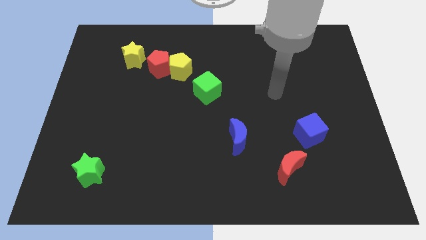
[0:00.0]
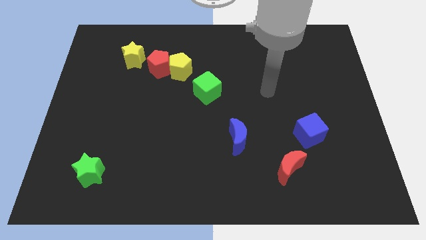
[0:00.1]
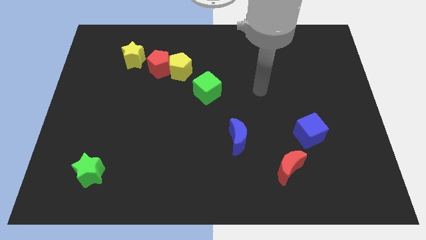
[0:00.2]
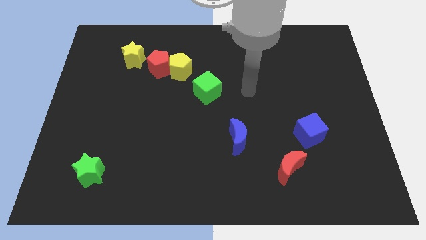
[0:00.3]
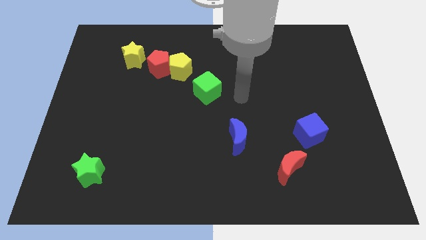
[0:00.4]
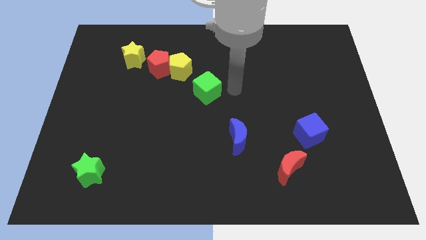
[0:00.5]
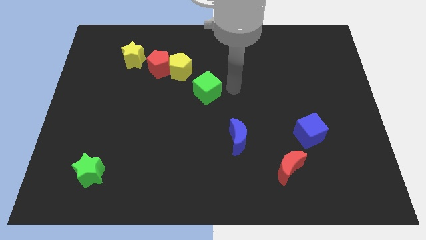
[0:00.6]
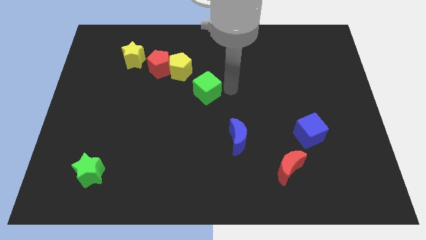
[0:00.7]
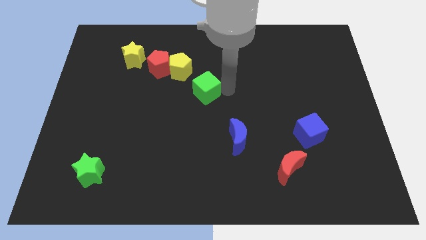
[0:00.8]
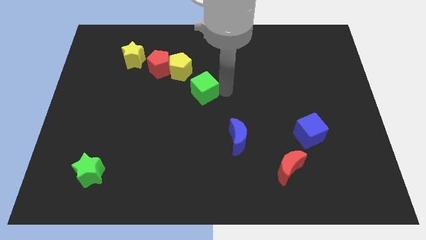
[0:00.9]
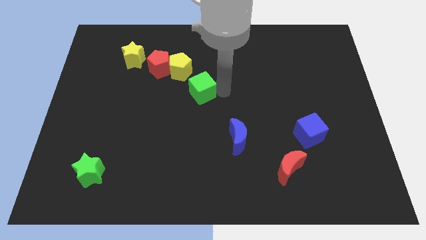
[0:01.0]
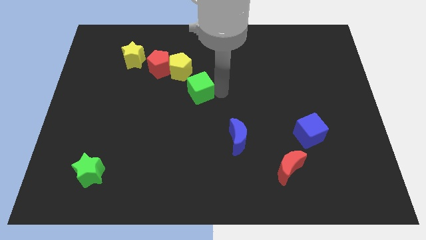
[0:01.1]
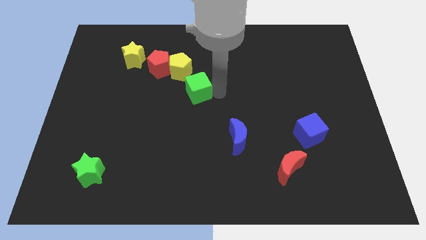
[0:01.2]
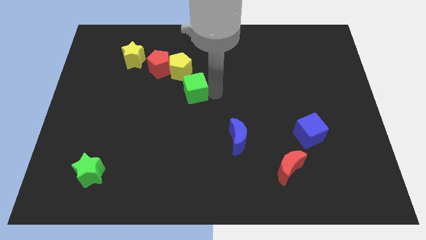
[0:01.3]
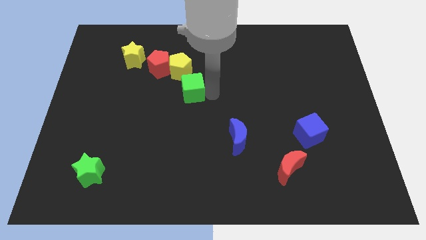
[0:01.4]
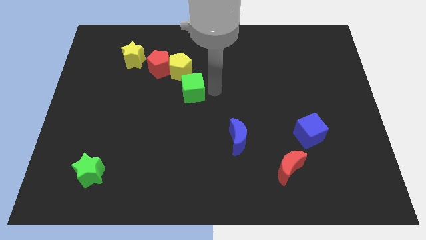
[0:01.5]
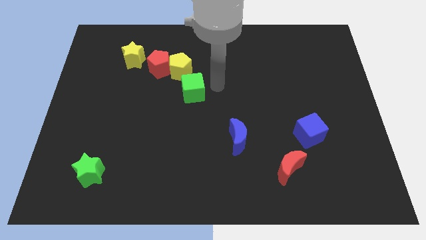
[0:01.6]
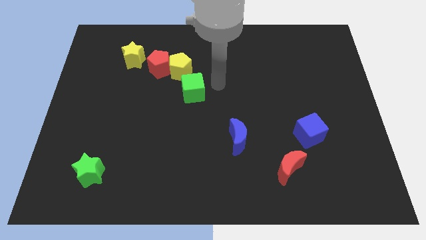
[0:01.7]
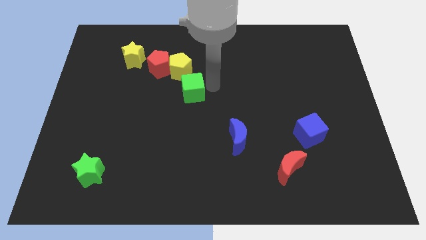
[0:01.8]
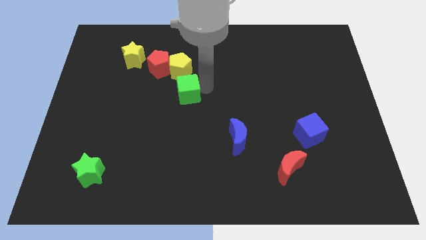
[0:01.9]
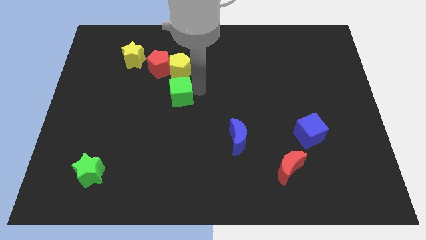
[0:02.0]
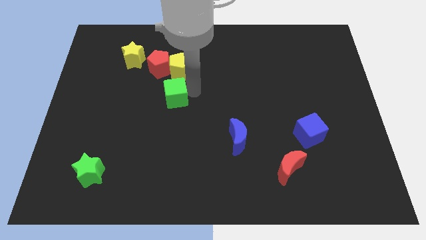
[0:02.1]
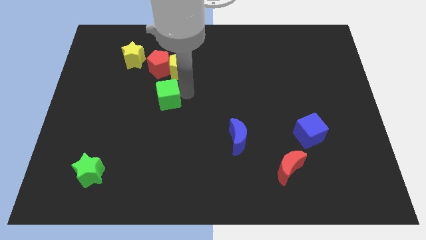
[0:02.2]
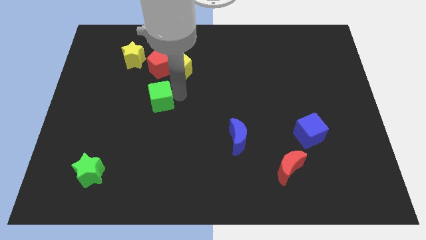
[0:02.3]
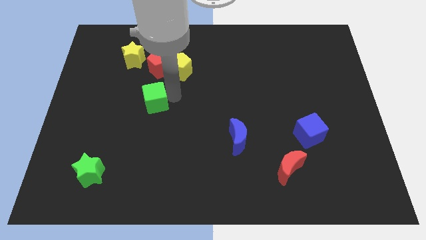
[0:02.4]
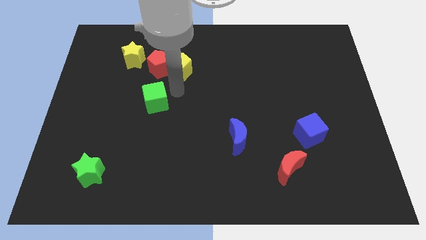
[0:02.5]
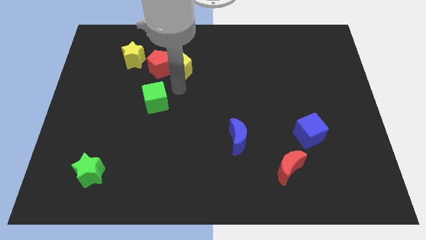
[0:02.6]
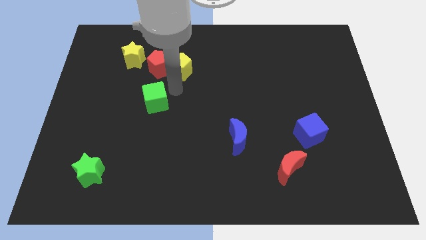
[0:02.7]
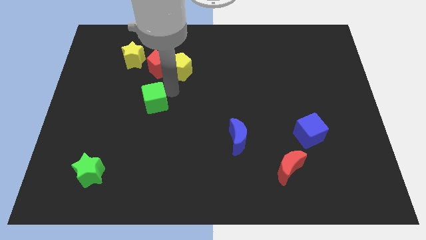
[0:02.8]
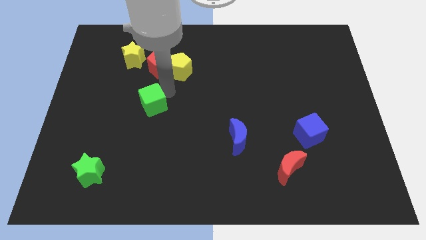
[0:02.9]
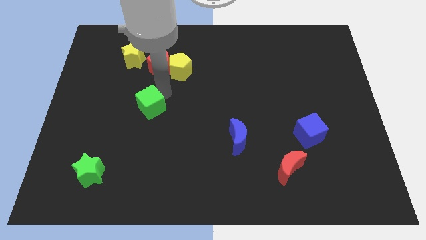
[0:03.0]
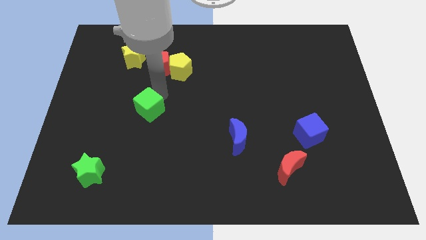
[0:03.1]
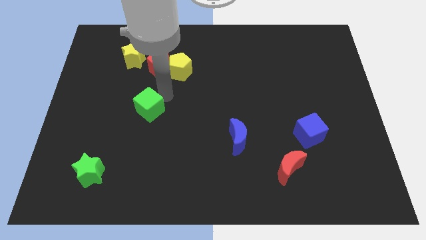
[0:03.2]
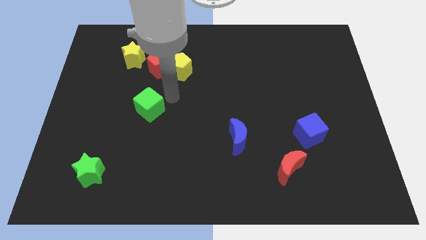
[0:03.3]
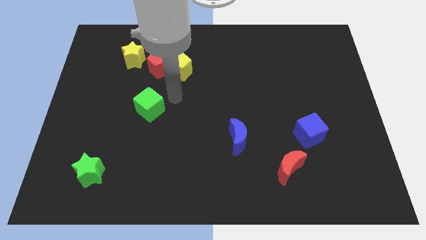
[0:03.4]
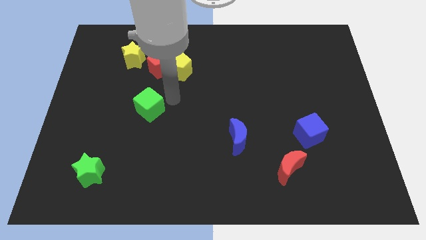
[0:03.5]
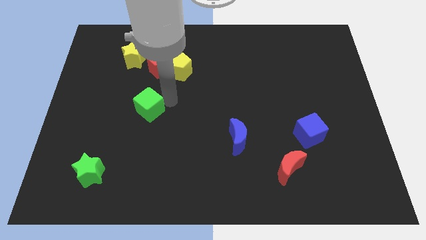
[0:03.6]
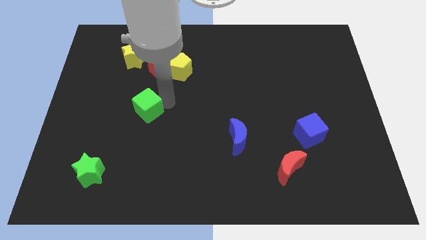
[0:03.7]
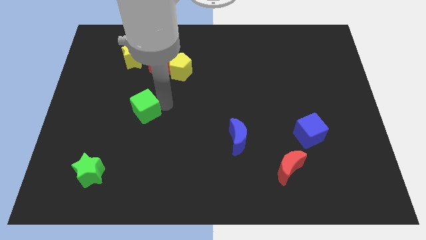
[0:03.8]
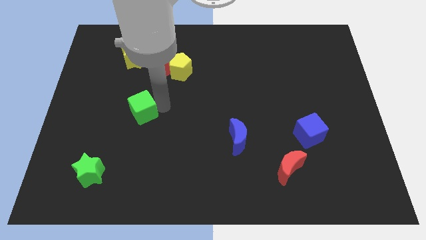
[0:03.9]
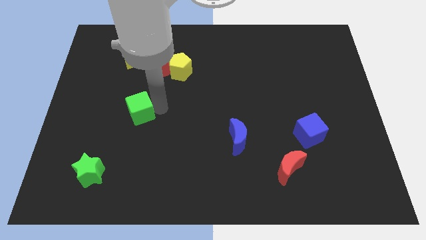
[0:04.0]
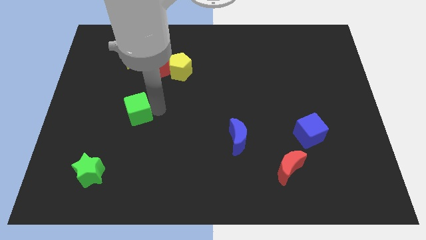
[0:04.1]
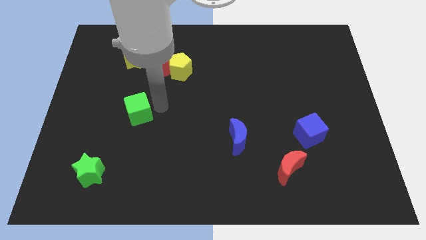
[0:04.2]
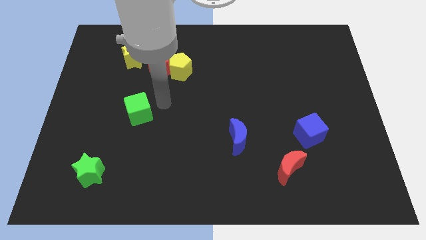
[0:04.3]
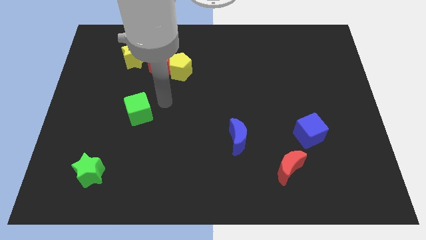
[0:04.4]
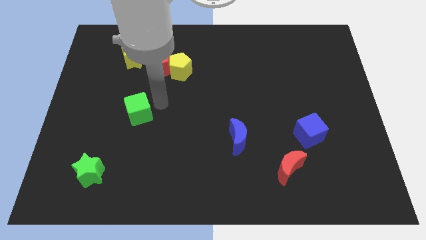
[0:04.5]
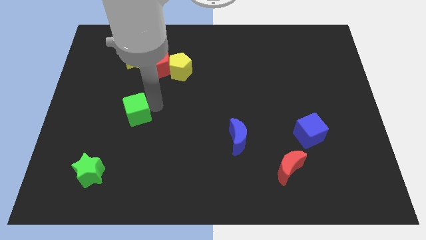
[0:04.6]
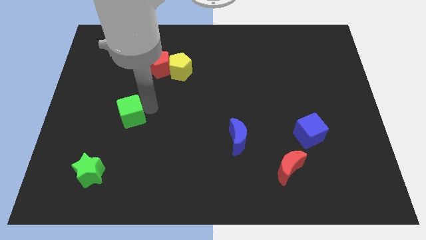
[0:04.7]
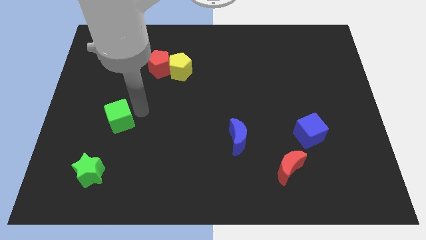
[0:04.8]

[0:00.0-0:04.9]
slide the green cube to the top of the green star

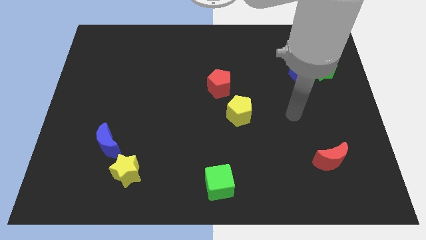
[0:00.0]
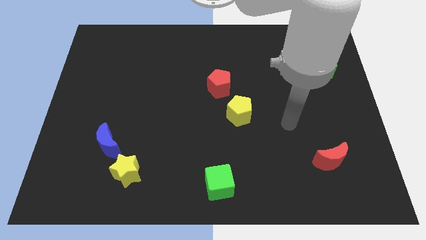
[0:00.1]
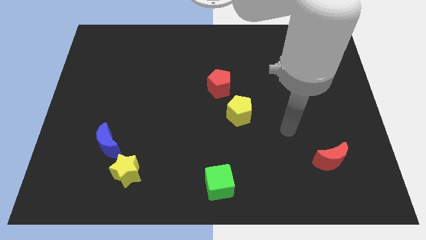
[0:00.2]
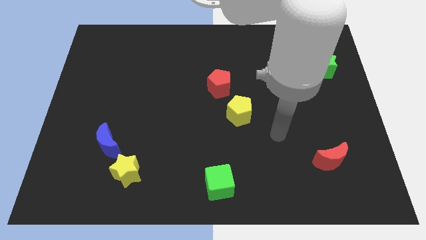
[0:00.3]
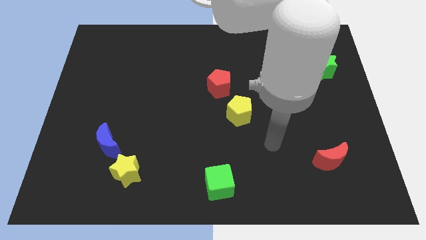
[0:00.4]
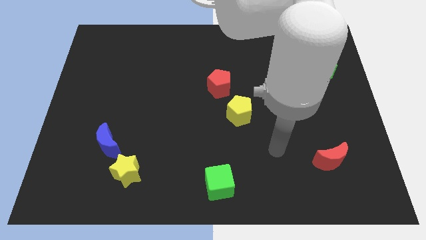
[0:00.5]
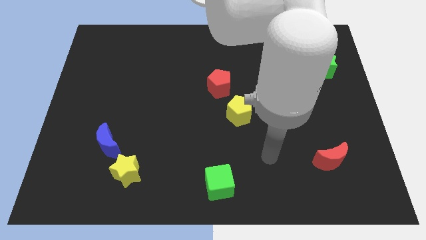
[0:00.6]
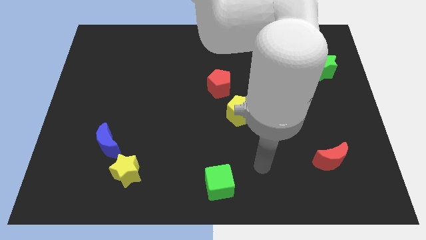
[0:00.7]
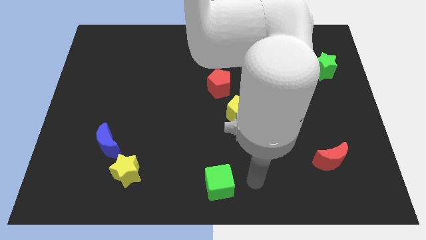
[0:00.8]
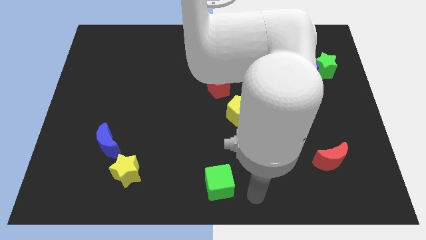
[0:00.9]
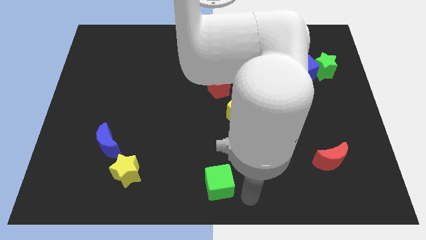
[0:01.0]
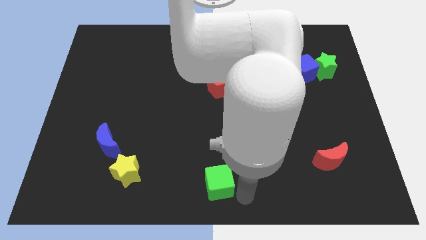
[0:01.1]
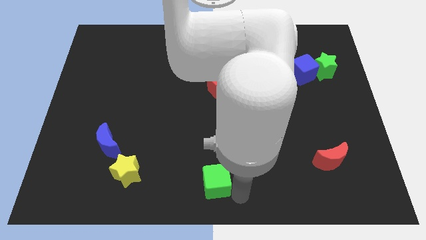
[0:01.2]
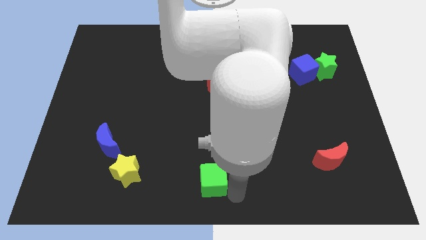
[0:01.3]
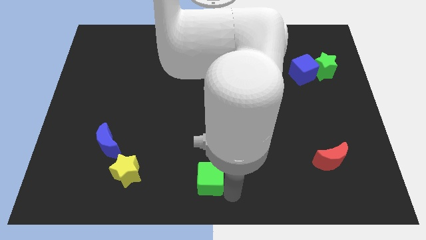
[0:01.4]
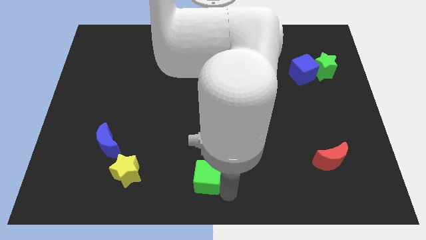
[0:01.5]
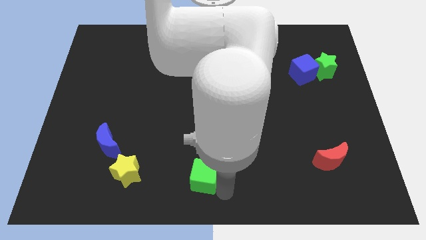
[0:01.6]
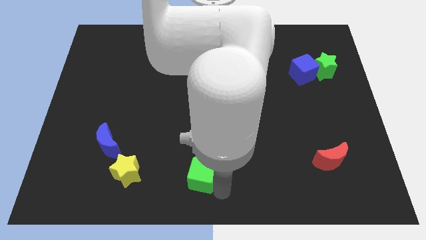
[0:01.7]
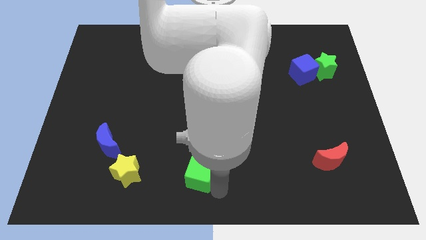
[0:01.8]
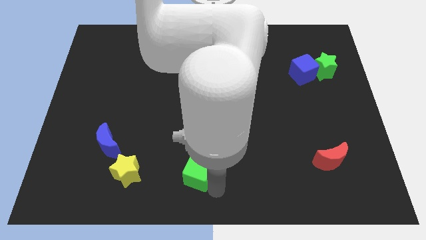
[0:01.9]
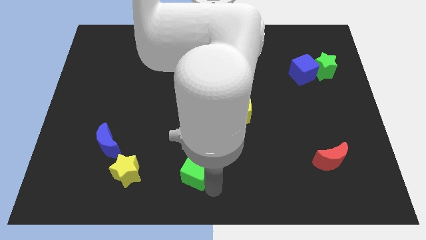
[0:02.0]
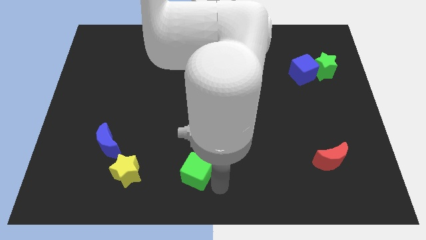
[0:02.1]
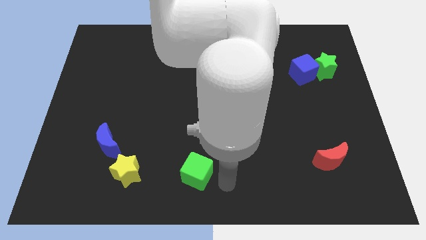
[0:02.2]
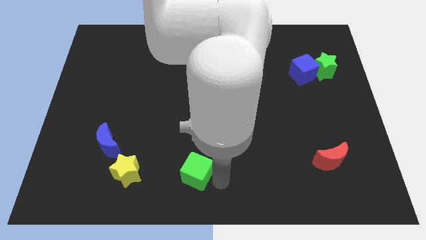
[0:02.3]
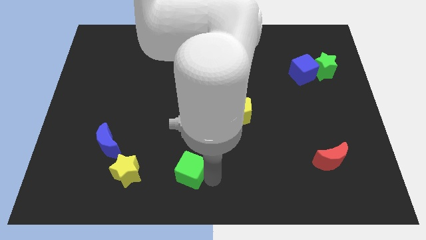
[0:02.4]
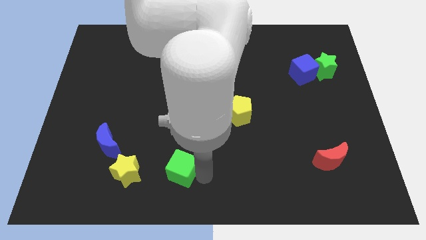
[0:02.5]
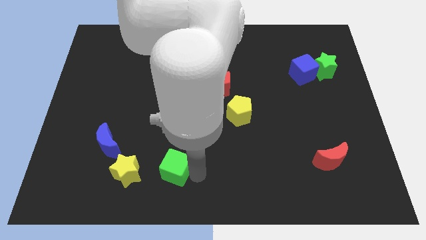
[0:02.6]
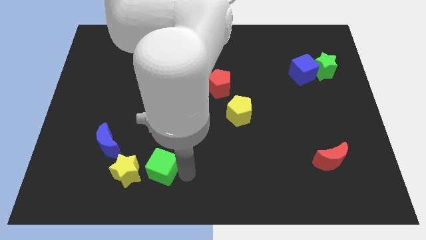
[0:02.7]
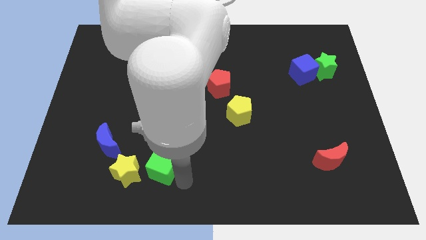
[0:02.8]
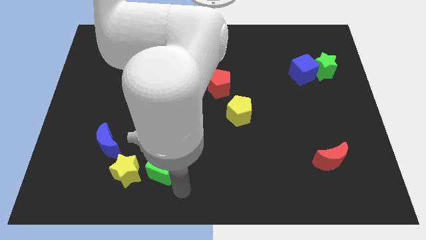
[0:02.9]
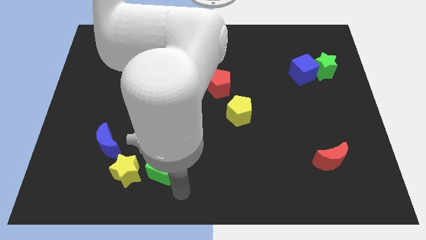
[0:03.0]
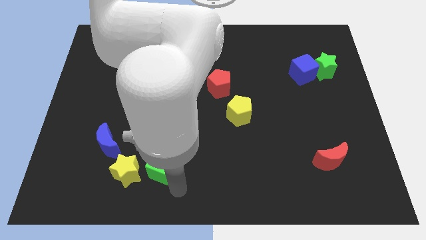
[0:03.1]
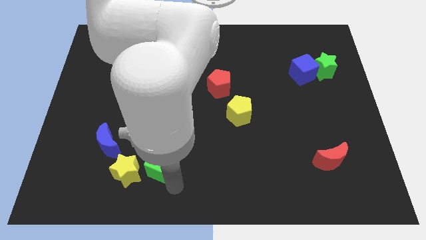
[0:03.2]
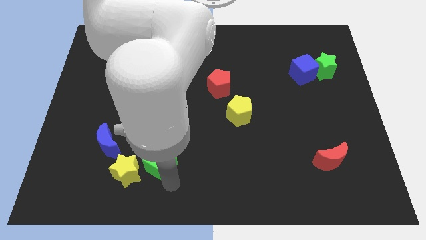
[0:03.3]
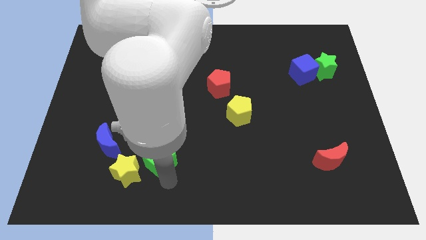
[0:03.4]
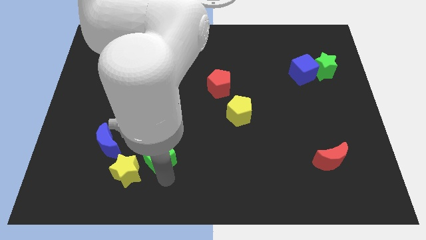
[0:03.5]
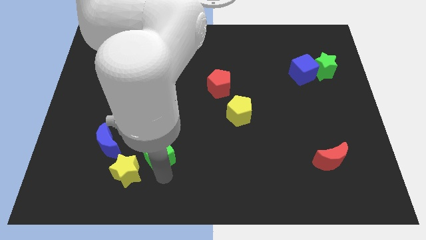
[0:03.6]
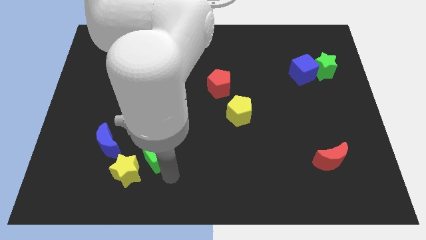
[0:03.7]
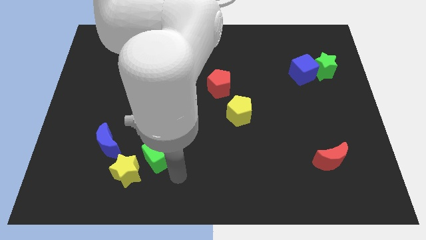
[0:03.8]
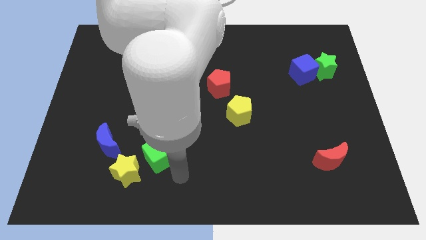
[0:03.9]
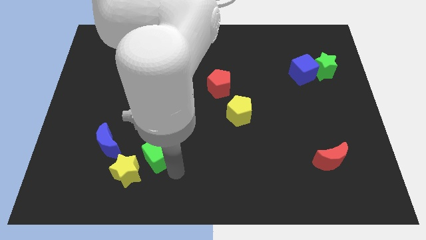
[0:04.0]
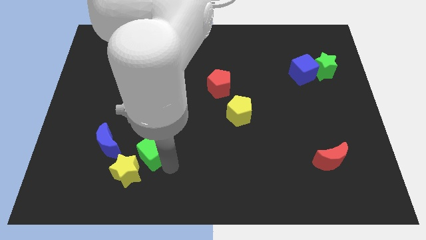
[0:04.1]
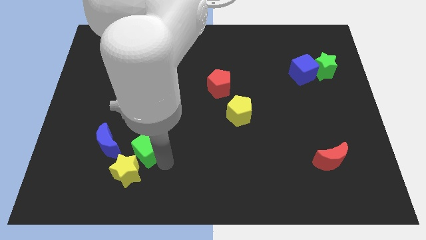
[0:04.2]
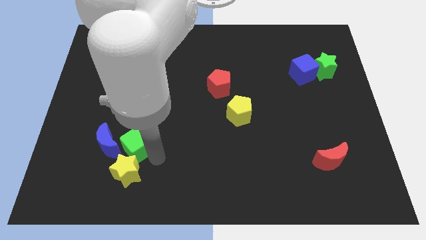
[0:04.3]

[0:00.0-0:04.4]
push the green cube diagonally up and to the right of the blue moon
